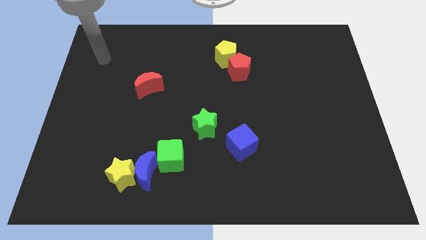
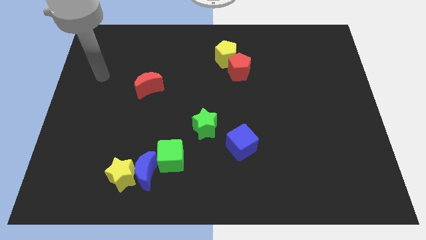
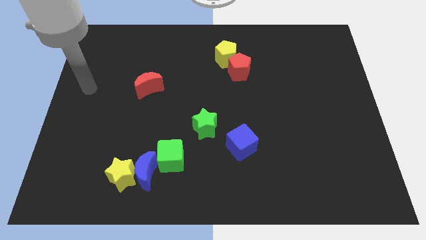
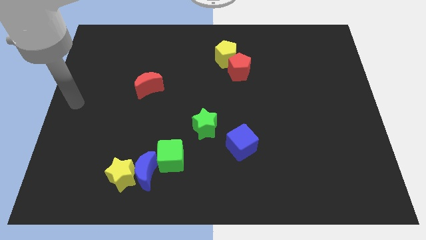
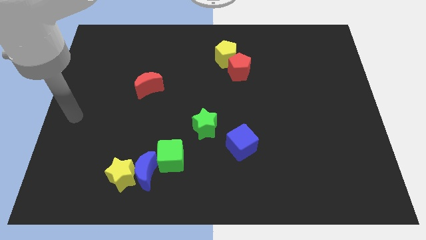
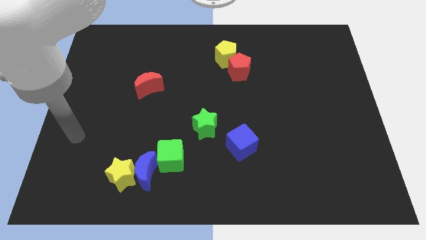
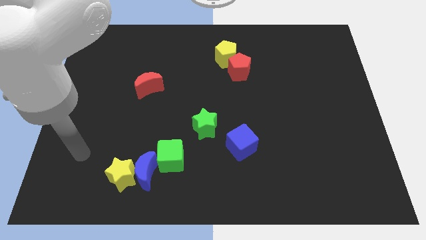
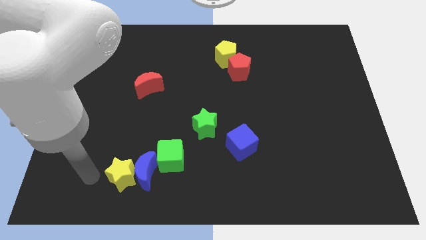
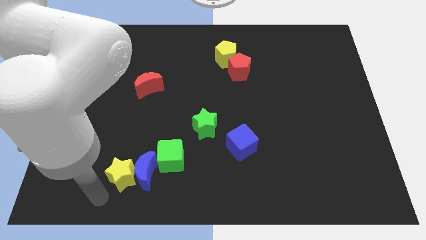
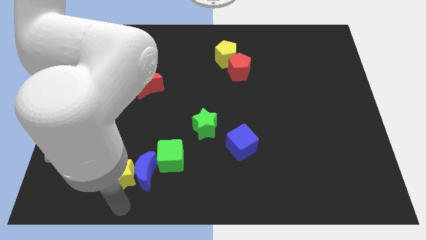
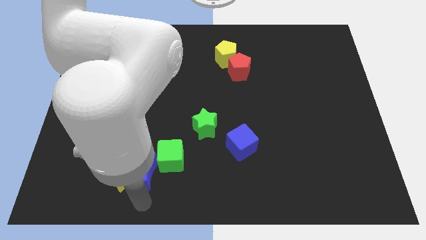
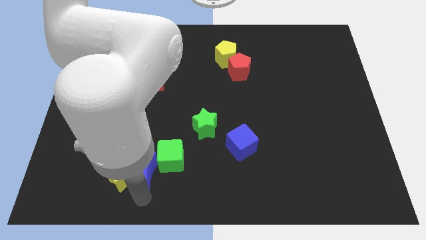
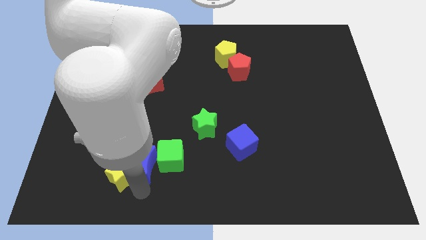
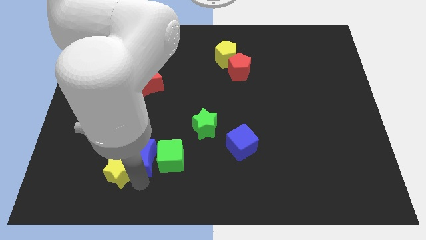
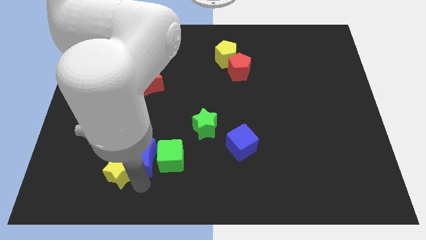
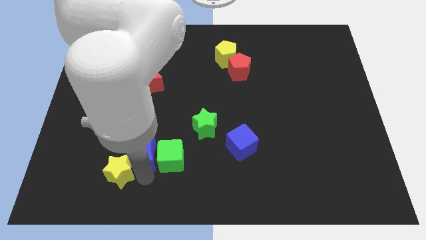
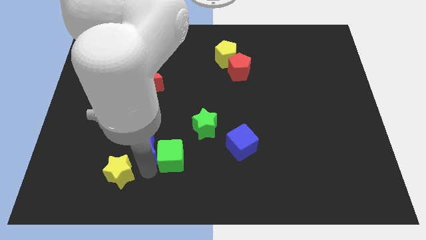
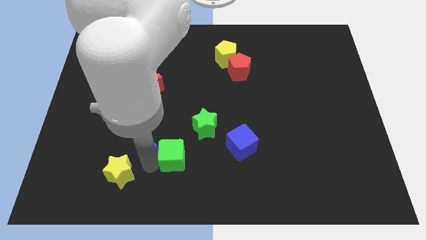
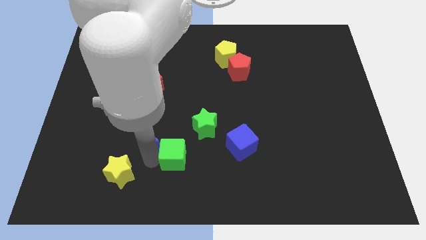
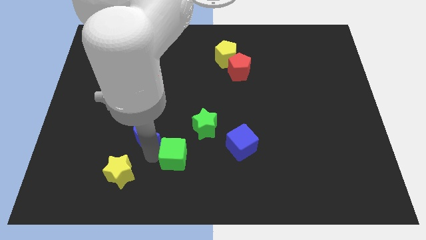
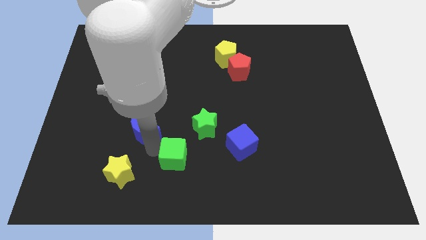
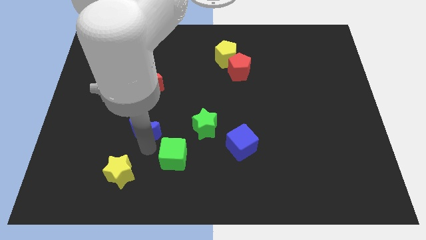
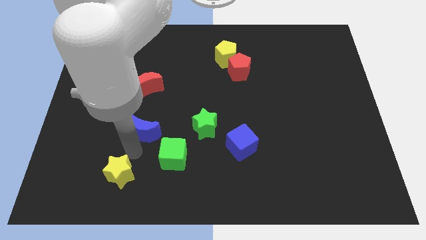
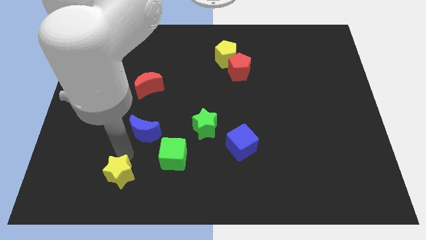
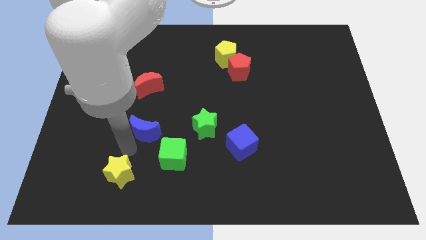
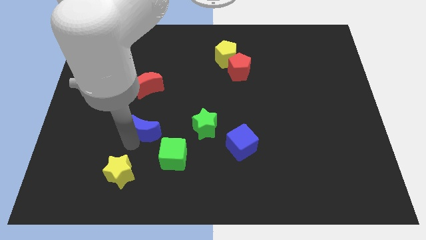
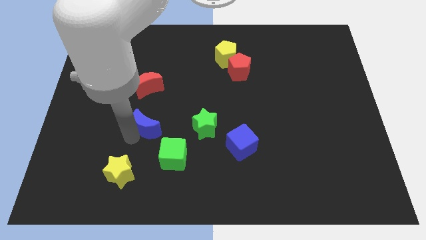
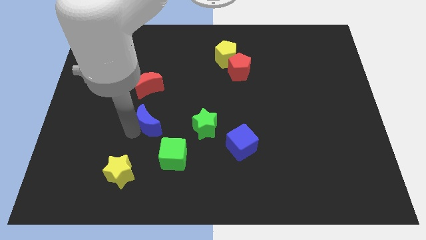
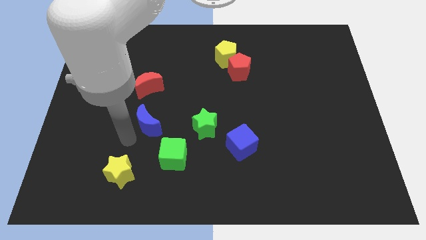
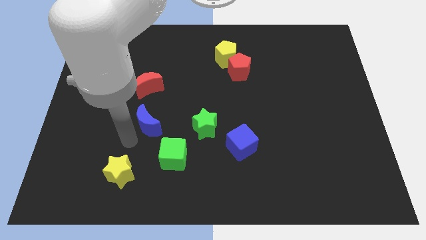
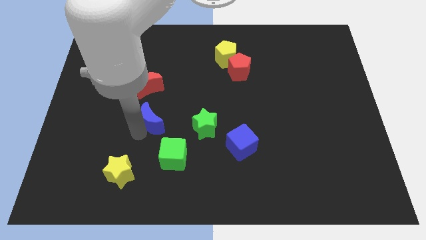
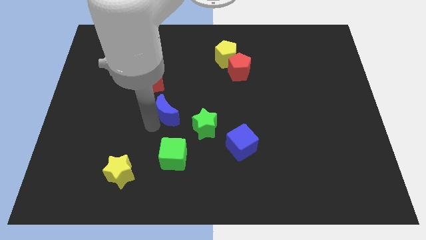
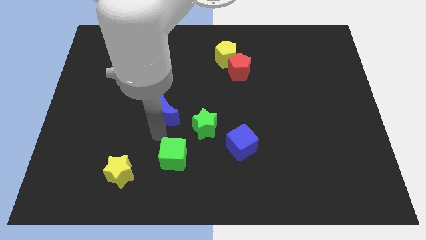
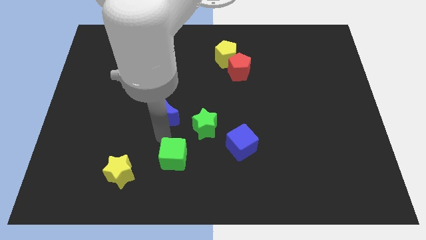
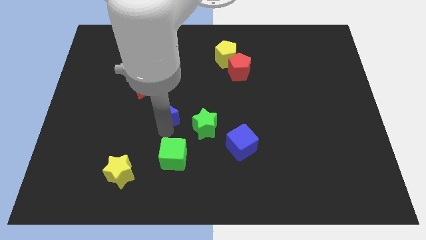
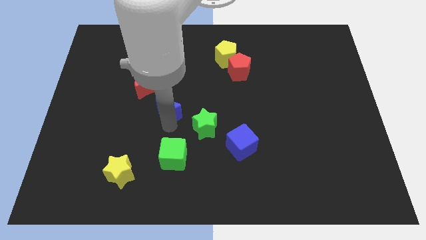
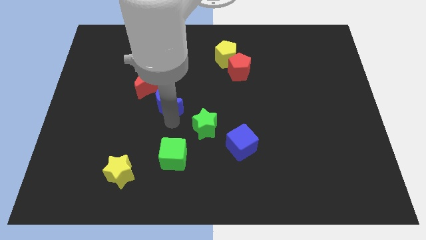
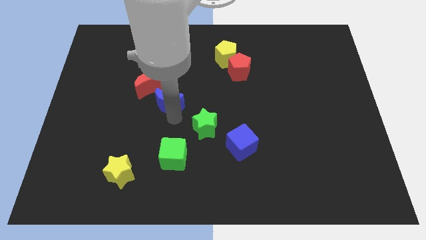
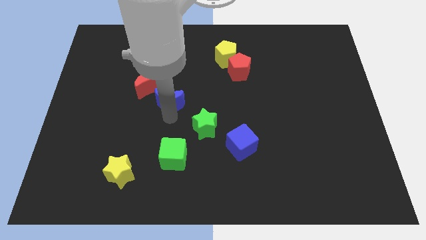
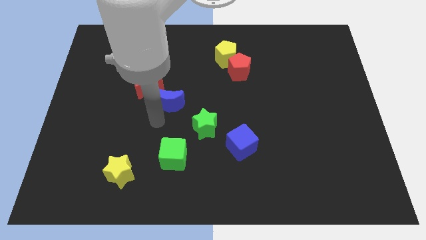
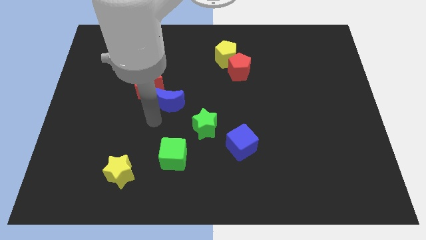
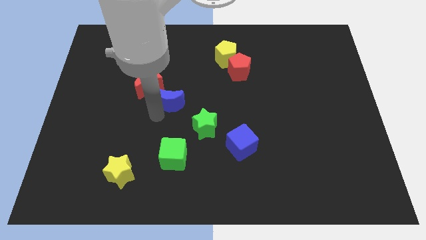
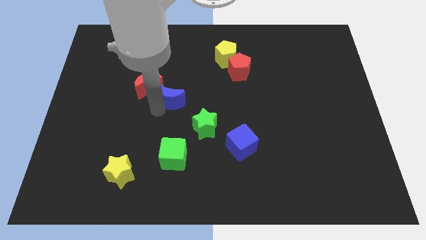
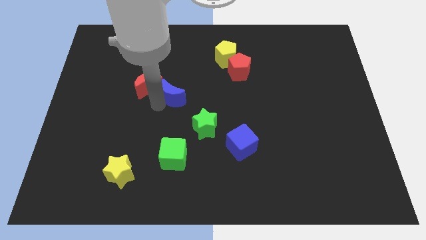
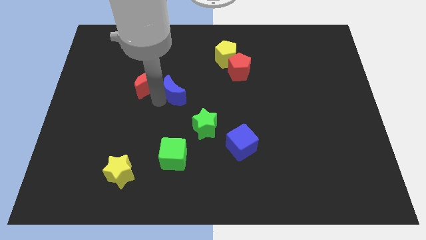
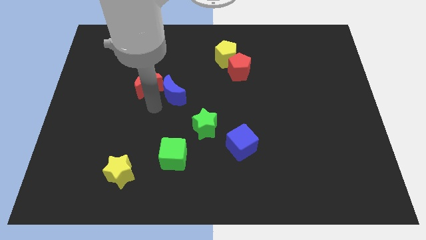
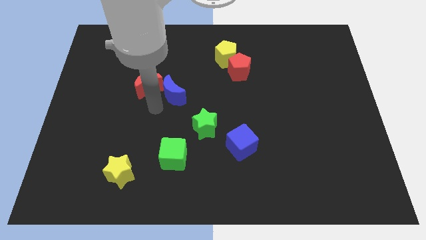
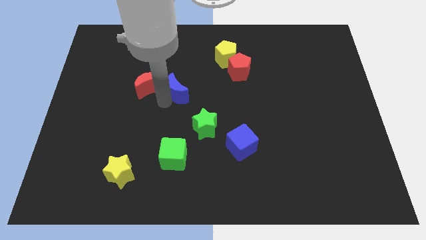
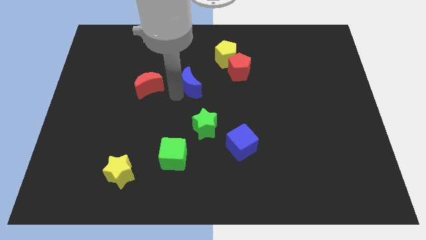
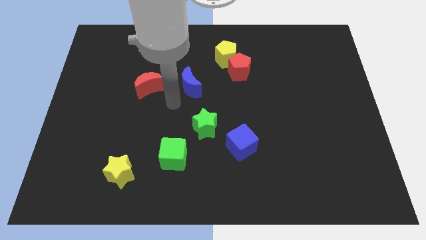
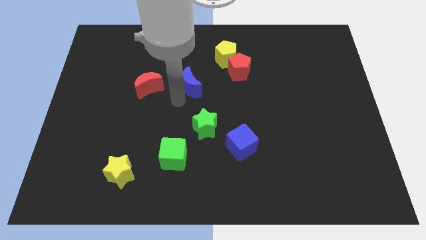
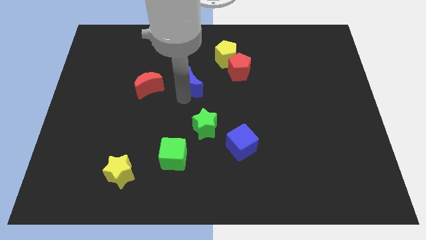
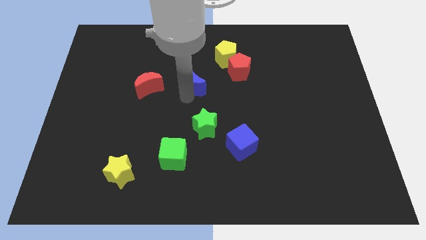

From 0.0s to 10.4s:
slide the blue moon to the bottom left of the yellow pentagon

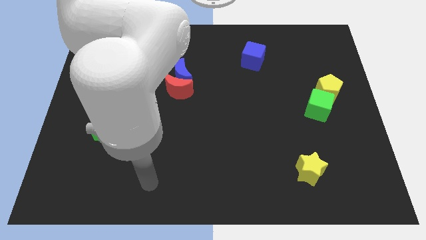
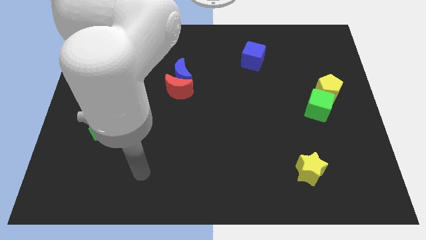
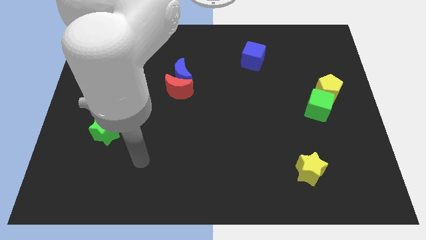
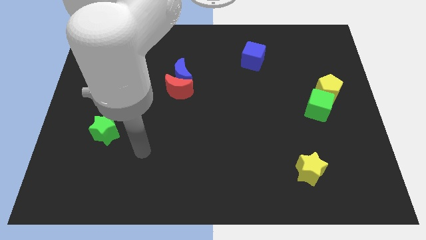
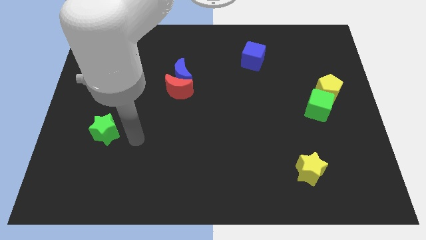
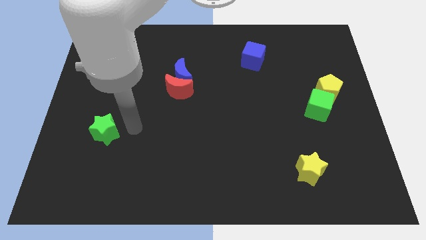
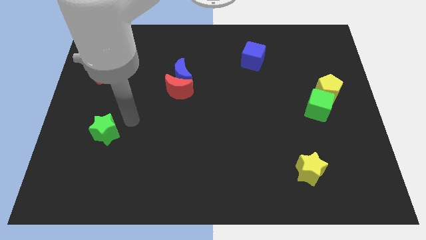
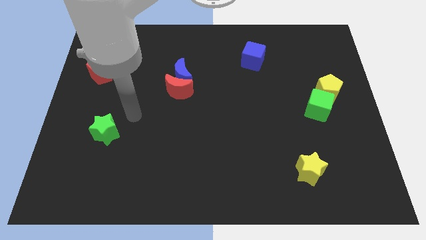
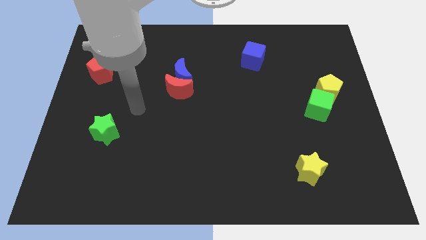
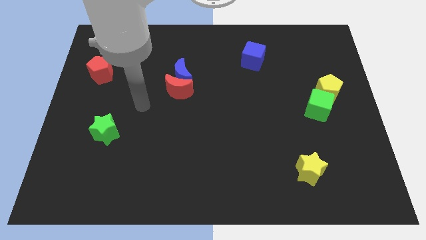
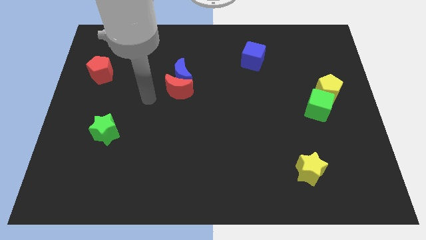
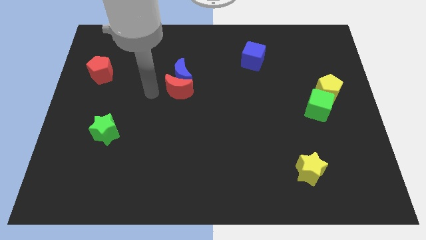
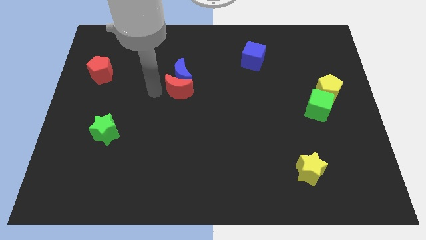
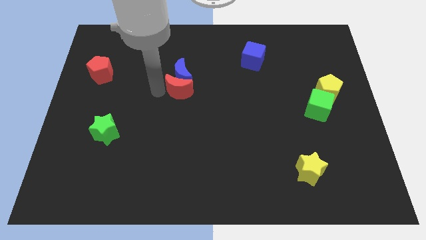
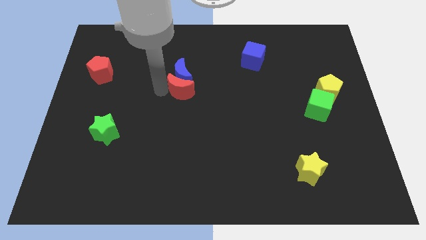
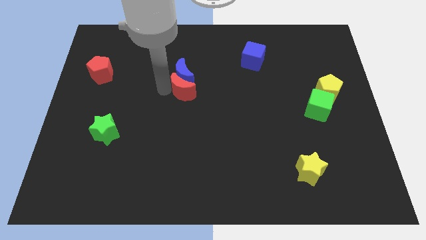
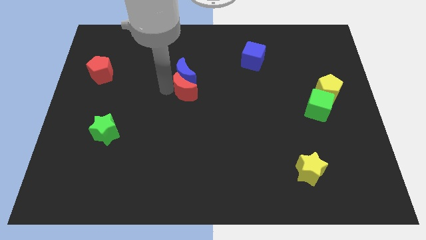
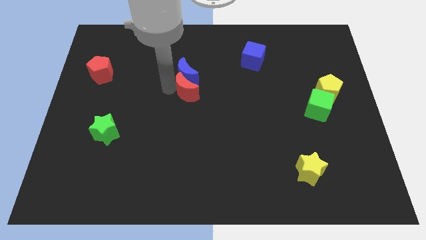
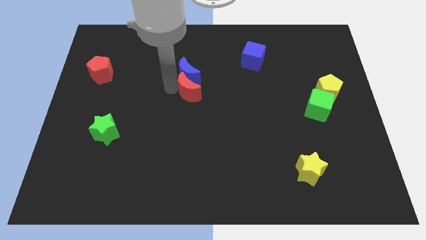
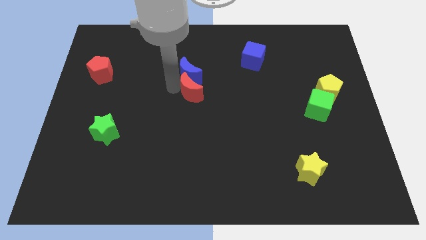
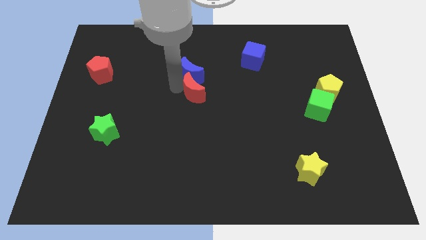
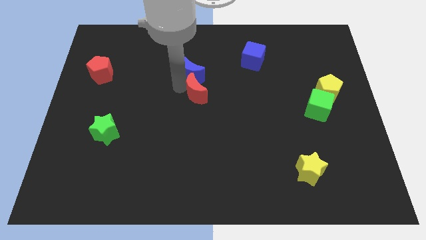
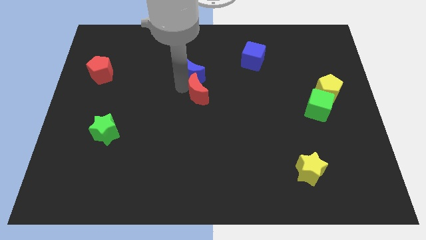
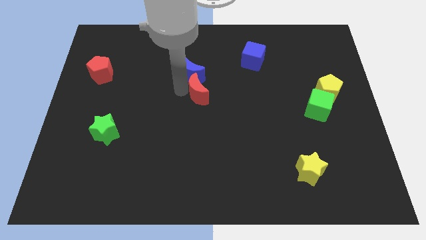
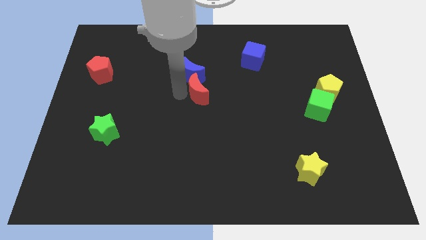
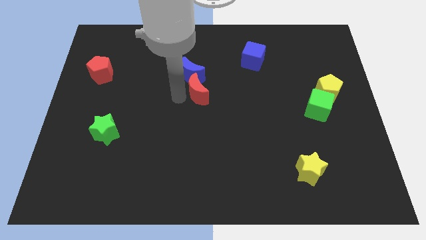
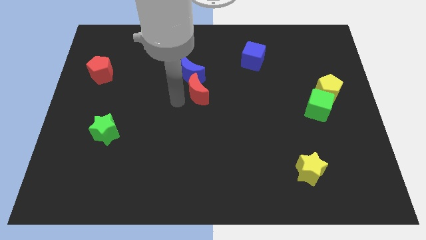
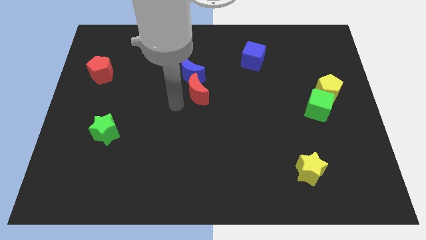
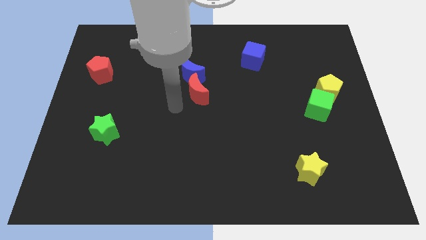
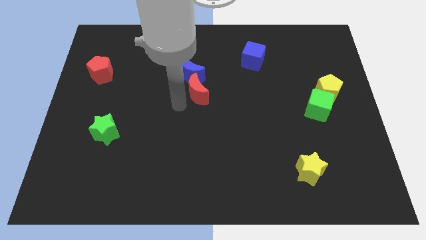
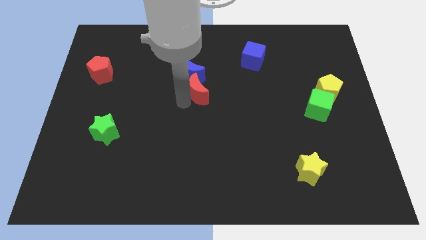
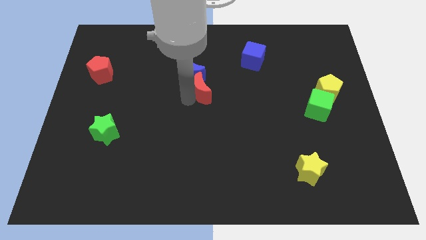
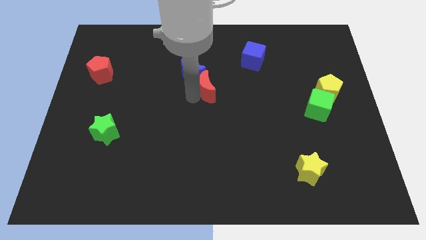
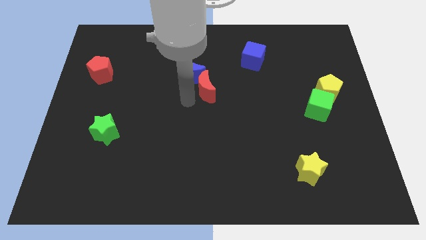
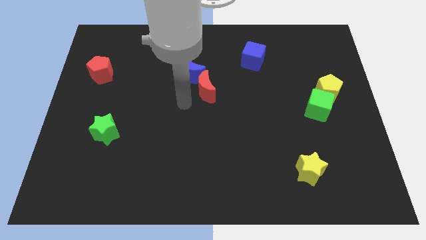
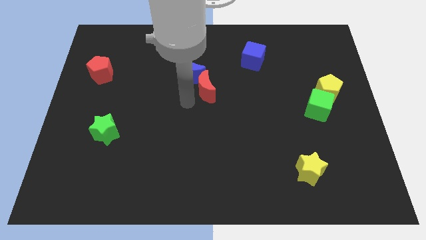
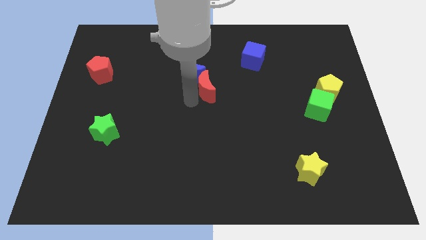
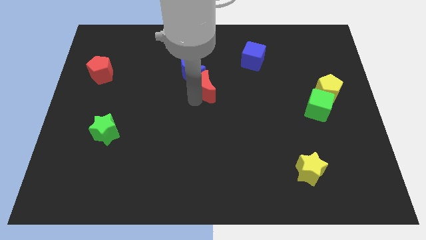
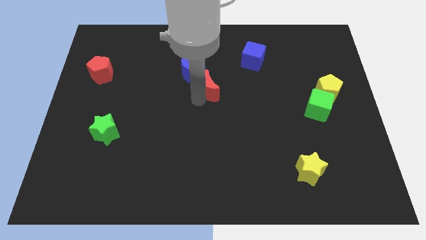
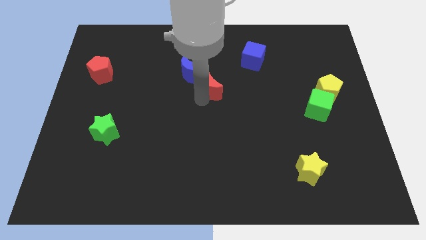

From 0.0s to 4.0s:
move the red moon just right of the blue moon
